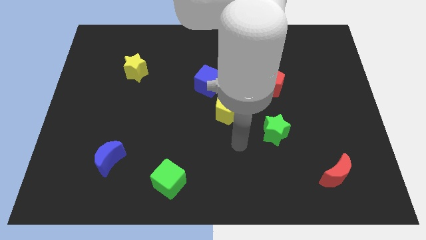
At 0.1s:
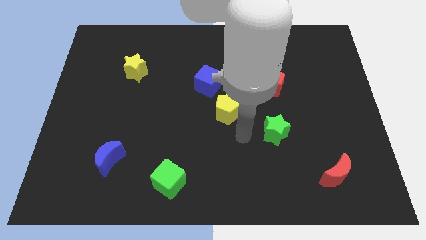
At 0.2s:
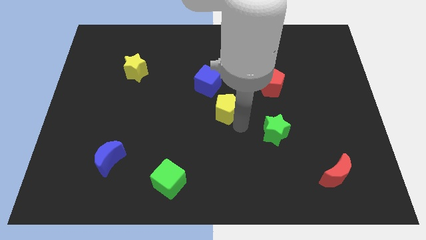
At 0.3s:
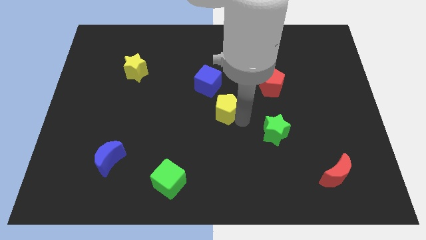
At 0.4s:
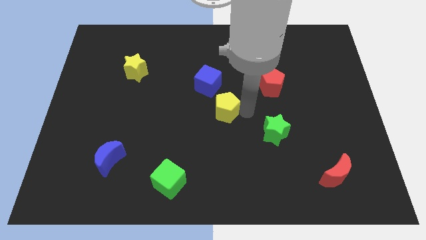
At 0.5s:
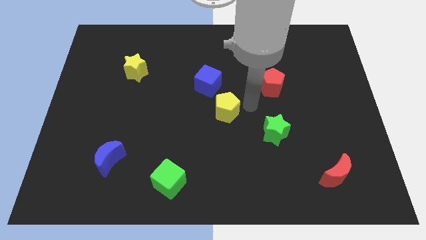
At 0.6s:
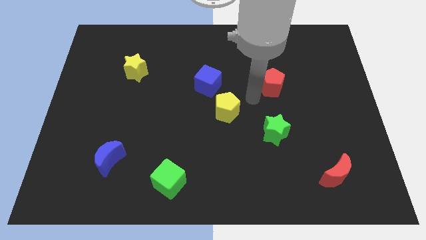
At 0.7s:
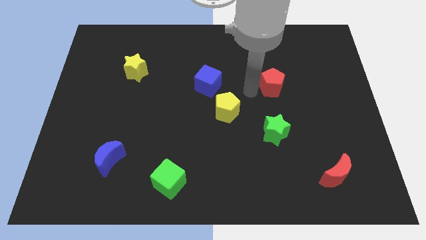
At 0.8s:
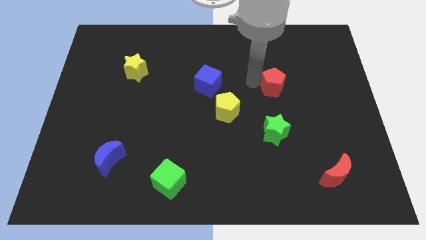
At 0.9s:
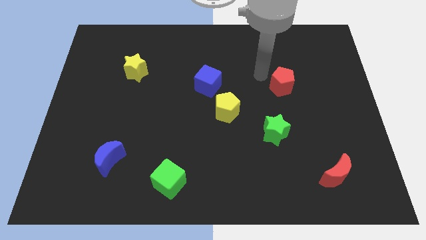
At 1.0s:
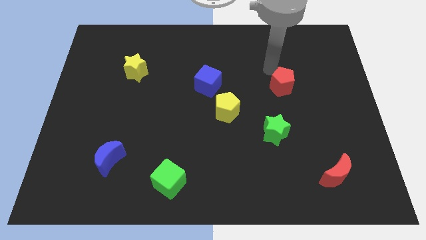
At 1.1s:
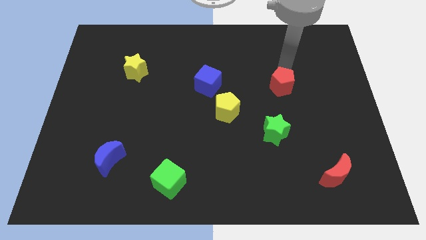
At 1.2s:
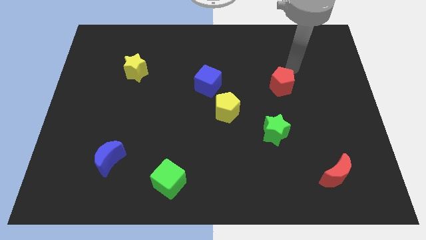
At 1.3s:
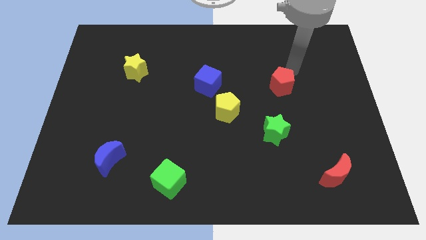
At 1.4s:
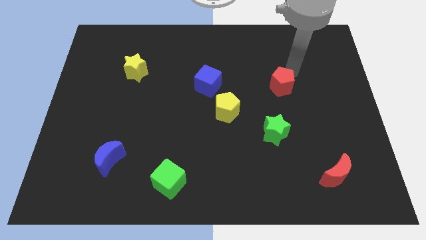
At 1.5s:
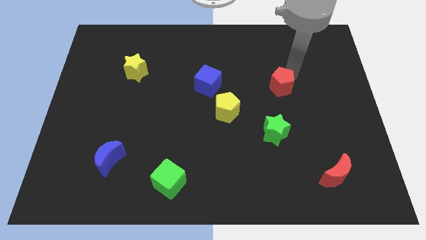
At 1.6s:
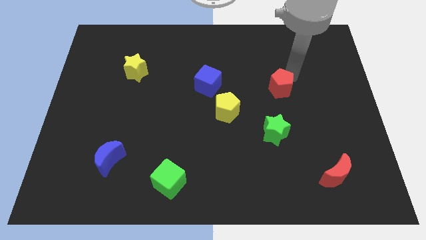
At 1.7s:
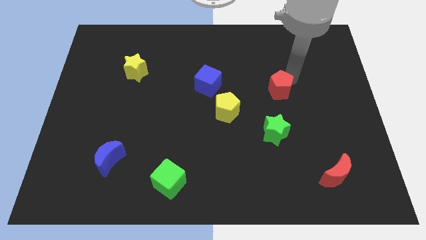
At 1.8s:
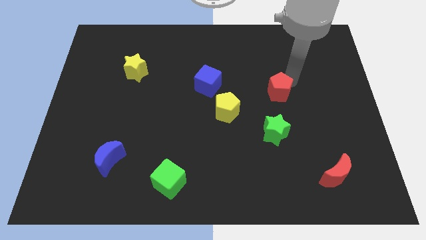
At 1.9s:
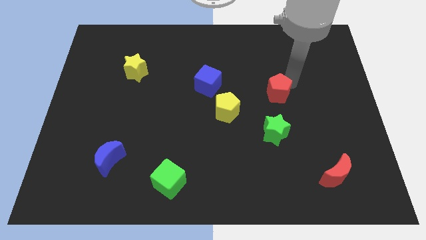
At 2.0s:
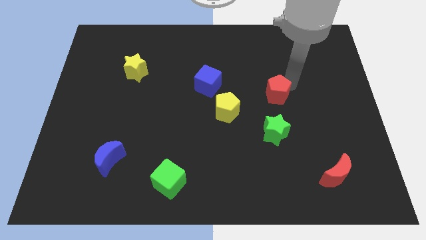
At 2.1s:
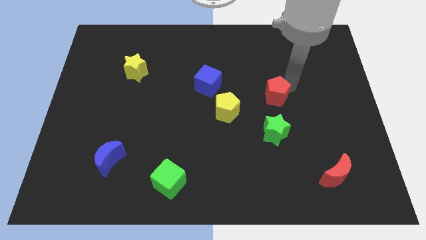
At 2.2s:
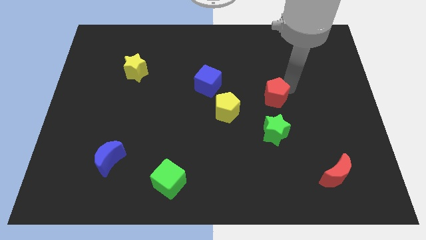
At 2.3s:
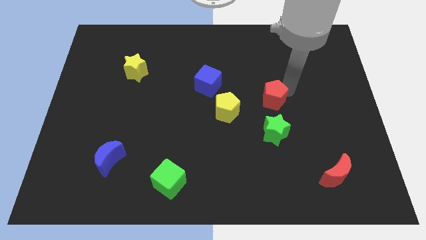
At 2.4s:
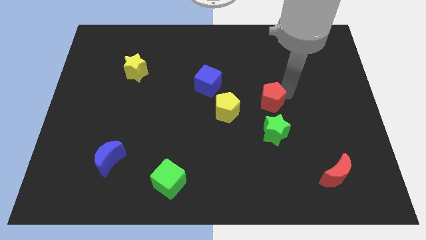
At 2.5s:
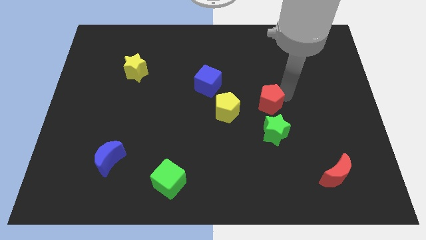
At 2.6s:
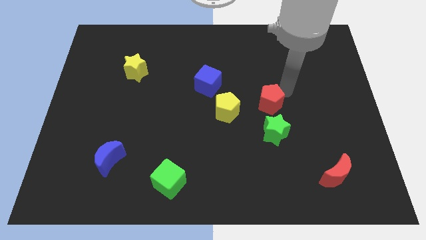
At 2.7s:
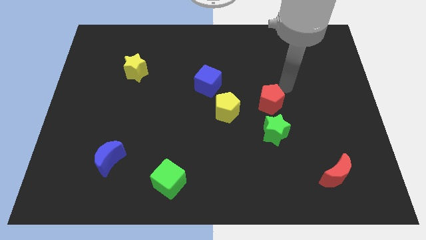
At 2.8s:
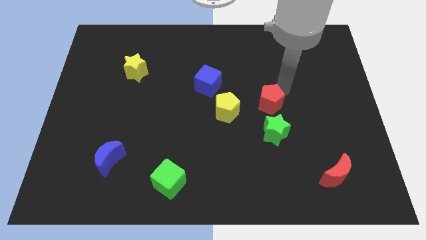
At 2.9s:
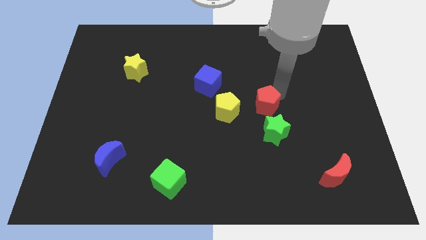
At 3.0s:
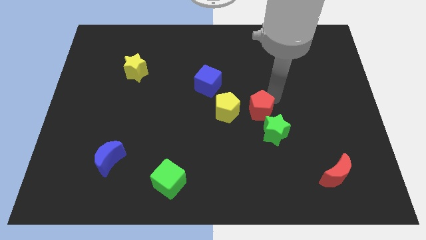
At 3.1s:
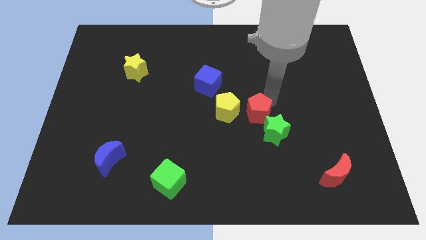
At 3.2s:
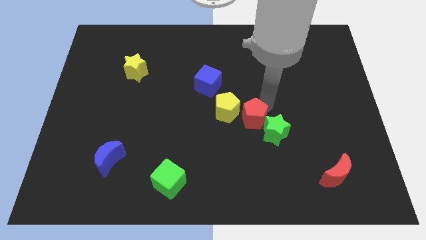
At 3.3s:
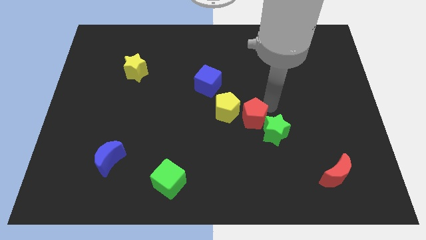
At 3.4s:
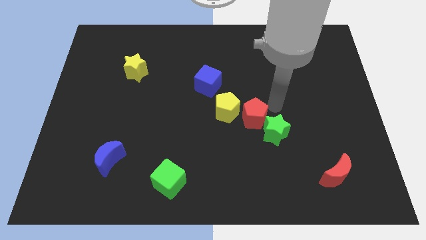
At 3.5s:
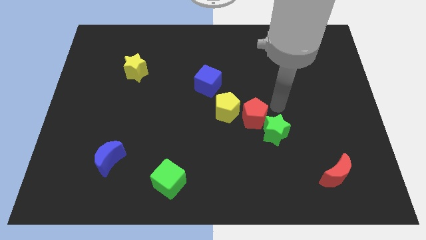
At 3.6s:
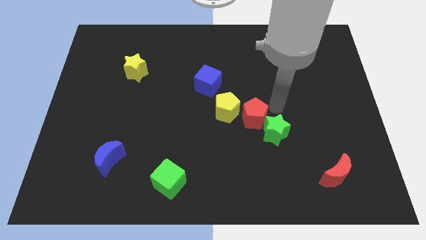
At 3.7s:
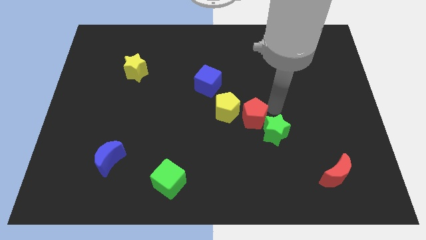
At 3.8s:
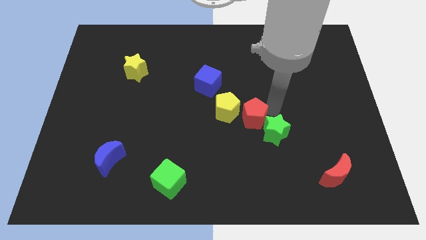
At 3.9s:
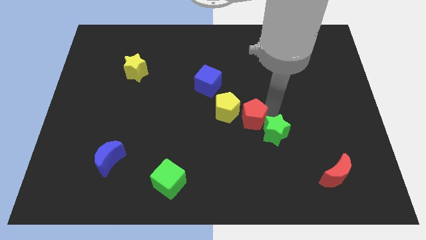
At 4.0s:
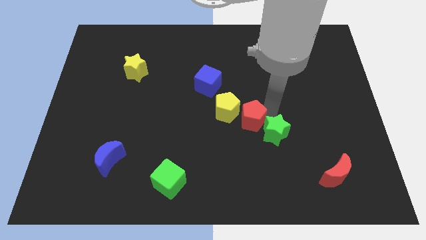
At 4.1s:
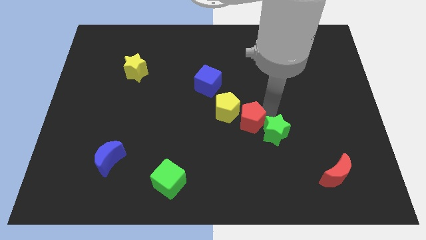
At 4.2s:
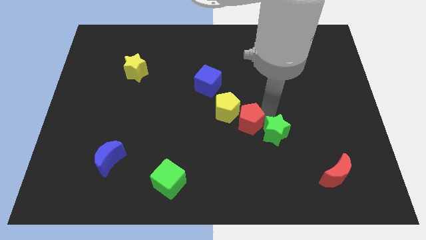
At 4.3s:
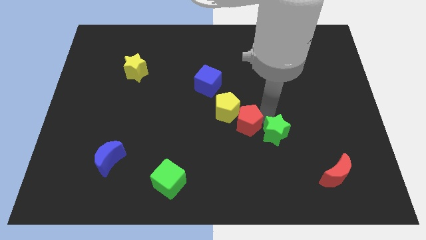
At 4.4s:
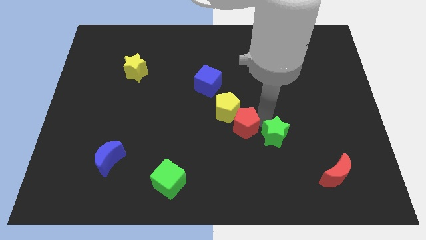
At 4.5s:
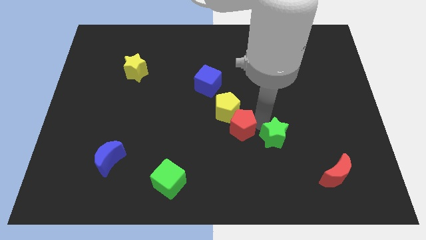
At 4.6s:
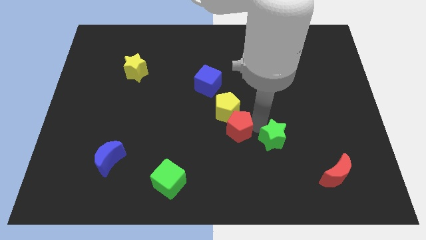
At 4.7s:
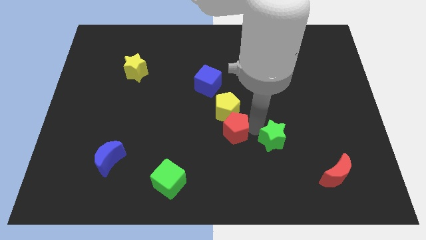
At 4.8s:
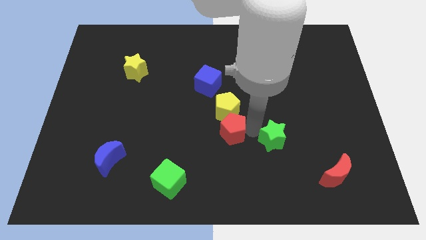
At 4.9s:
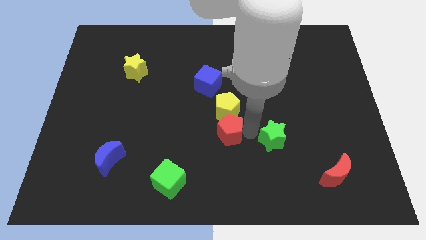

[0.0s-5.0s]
put the red pentagon to the bottom left of the yellow pentagon

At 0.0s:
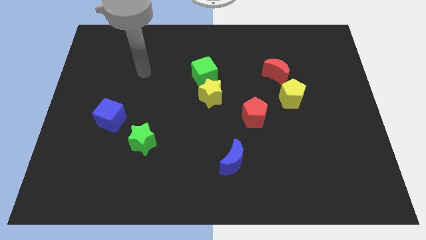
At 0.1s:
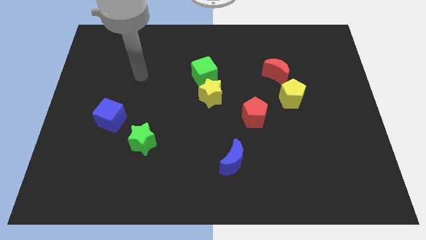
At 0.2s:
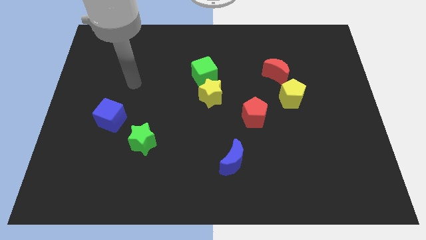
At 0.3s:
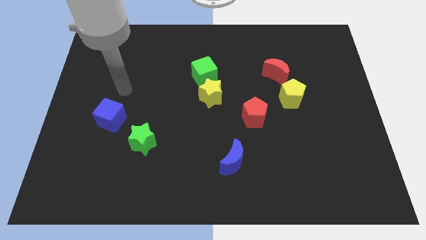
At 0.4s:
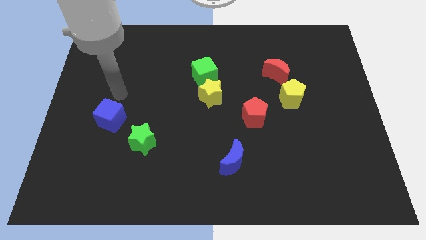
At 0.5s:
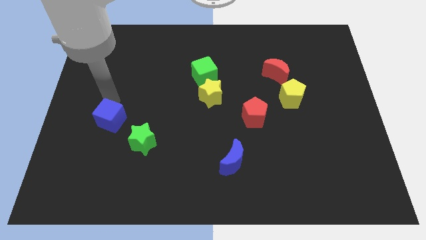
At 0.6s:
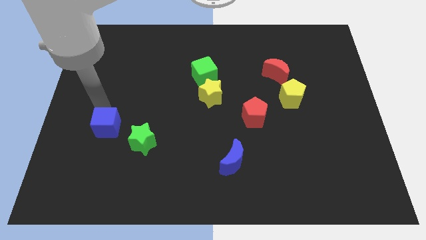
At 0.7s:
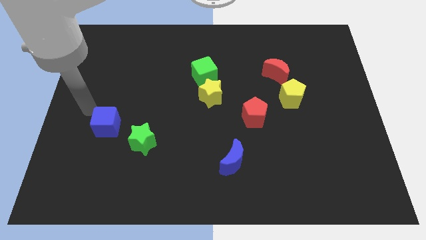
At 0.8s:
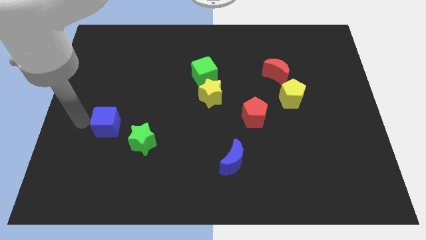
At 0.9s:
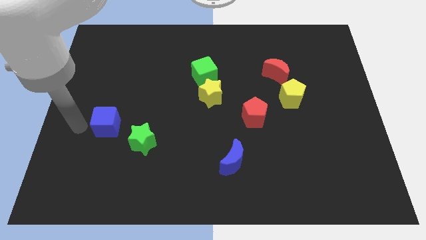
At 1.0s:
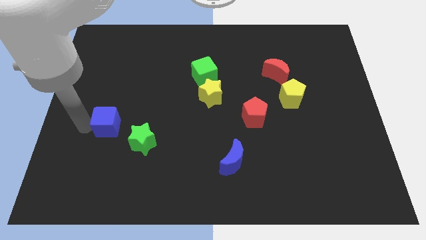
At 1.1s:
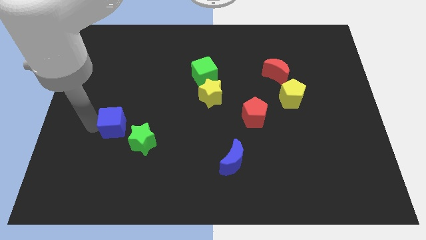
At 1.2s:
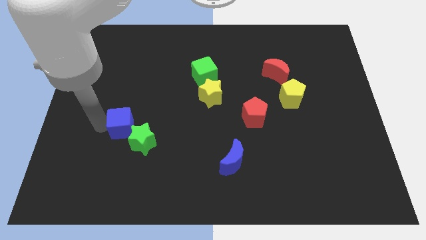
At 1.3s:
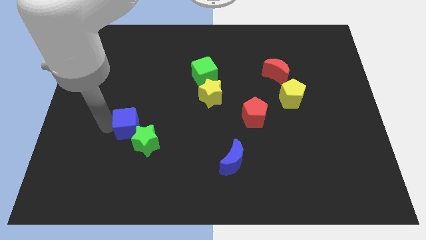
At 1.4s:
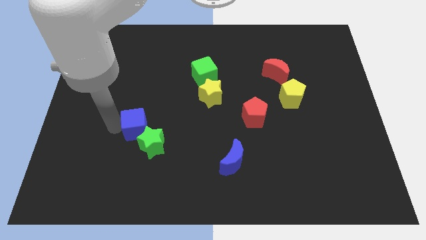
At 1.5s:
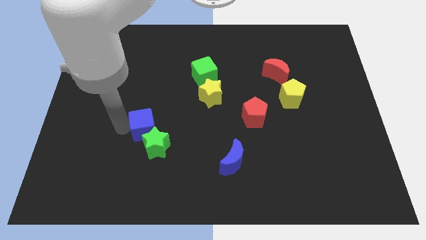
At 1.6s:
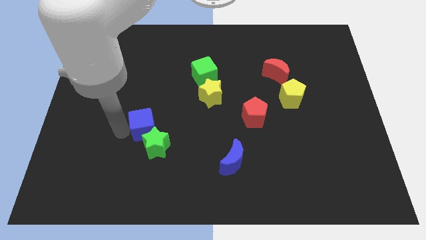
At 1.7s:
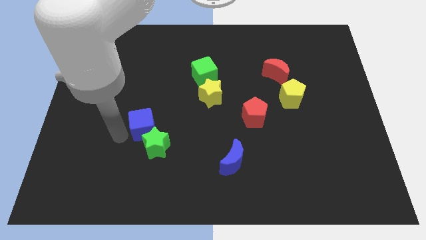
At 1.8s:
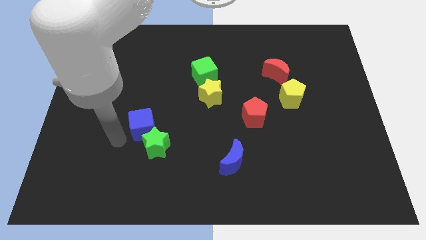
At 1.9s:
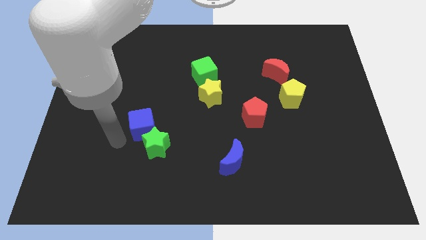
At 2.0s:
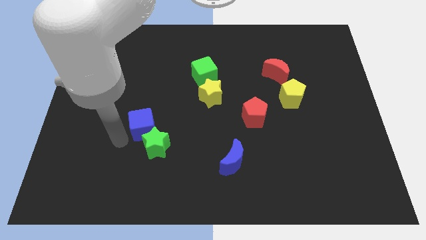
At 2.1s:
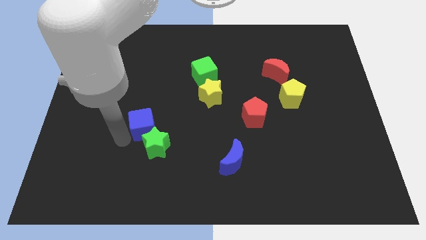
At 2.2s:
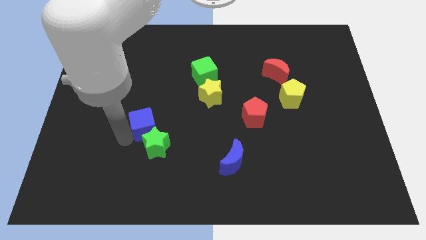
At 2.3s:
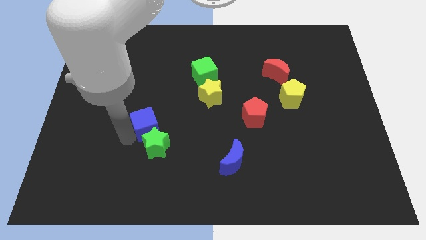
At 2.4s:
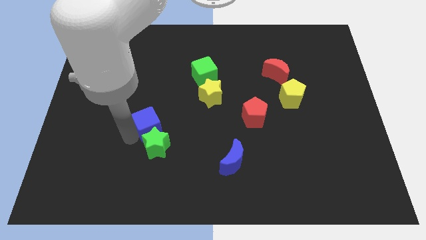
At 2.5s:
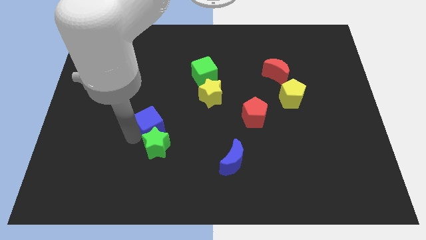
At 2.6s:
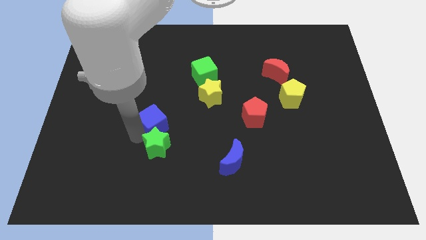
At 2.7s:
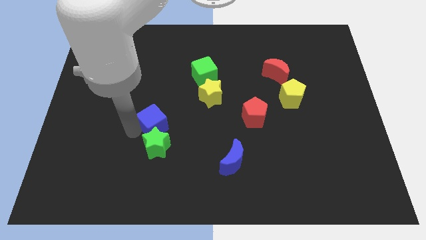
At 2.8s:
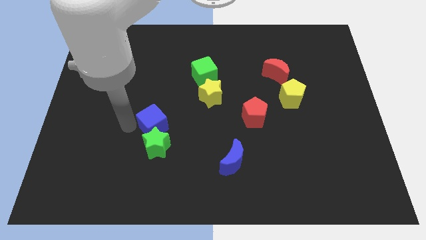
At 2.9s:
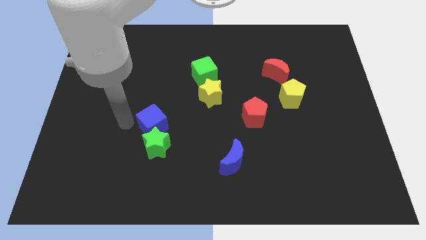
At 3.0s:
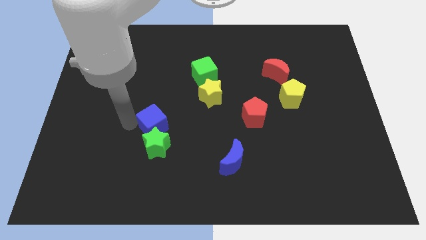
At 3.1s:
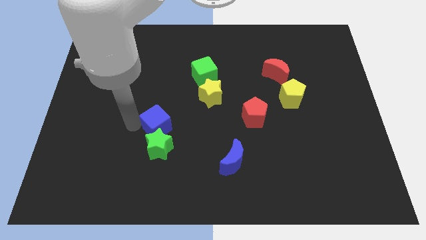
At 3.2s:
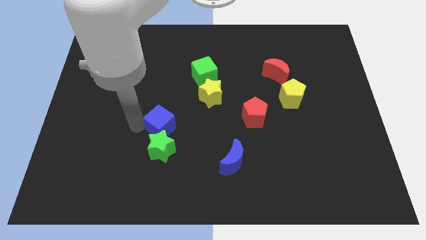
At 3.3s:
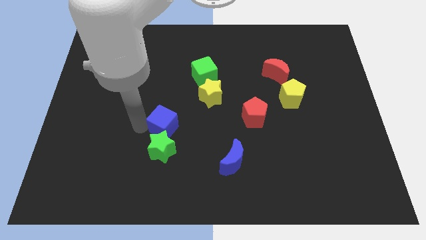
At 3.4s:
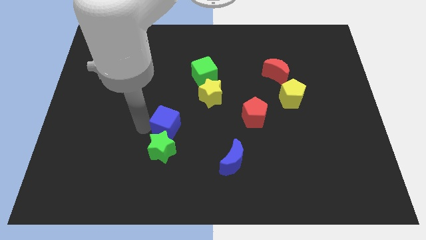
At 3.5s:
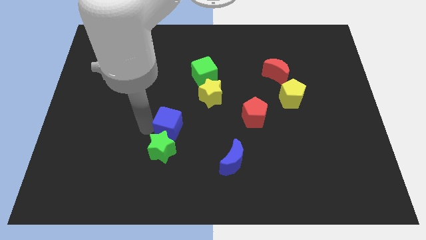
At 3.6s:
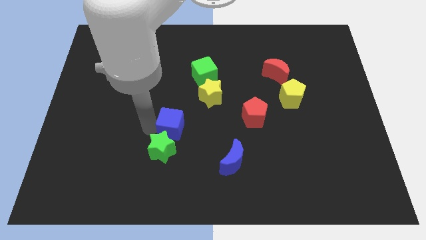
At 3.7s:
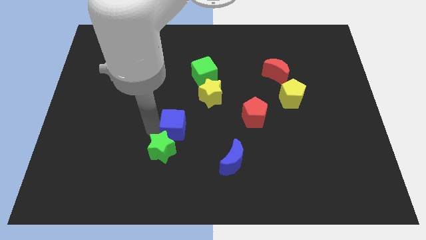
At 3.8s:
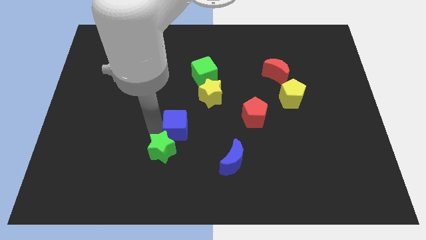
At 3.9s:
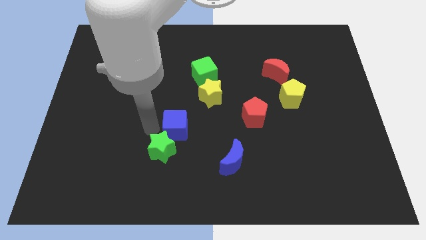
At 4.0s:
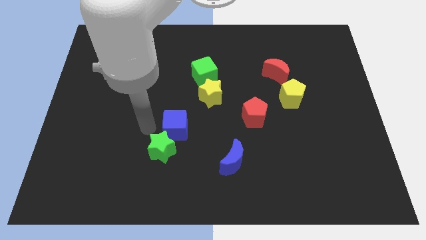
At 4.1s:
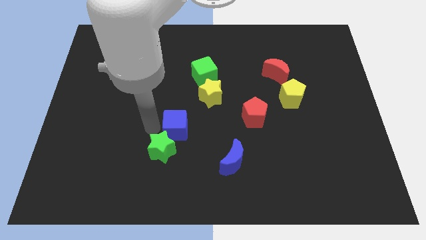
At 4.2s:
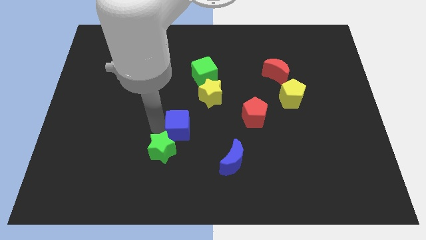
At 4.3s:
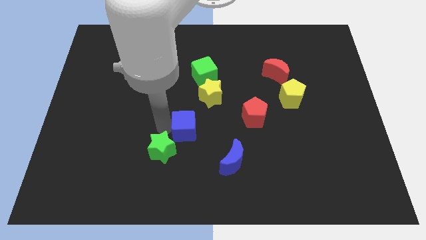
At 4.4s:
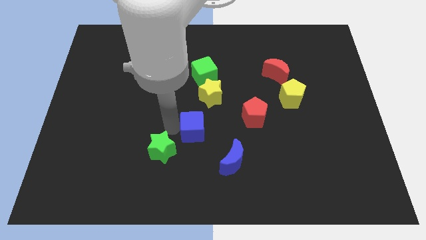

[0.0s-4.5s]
put the blue cube below the yellow star
